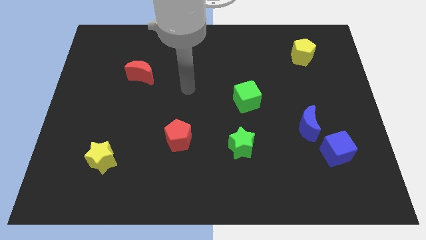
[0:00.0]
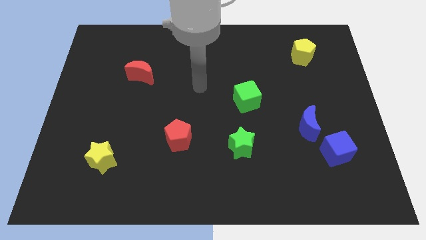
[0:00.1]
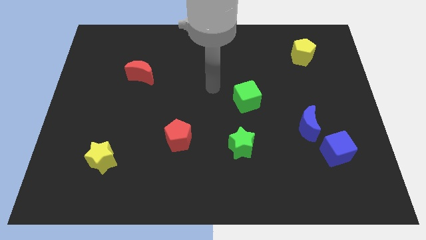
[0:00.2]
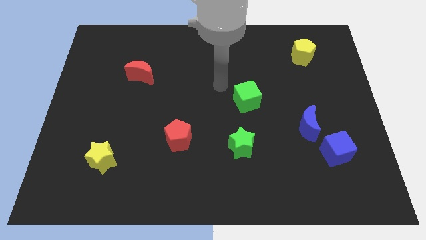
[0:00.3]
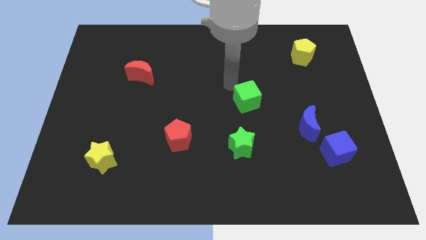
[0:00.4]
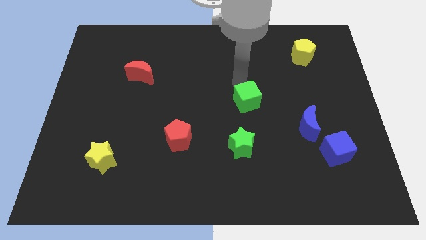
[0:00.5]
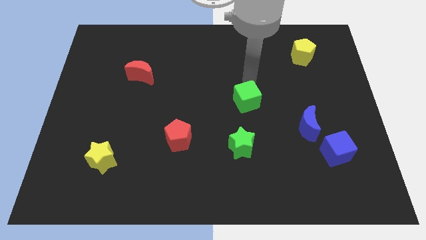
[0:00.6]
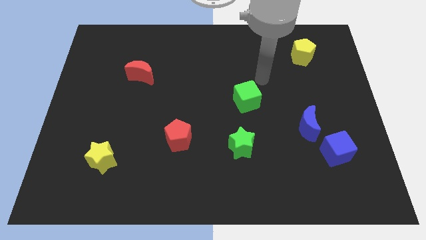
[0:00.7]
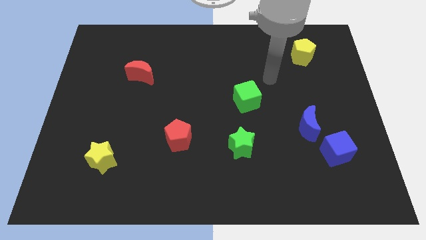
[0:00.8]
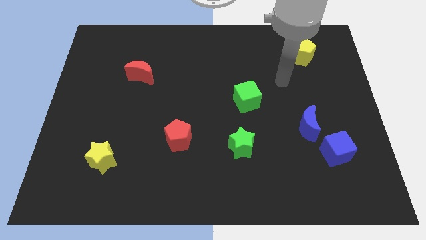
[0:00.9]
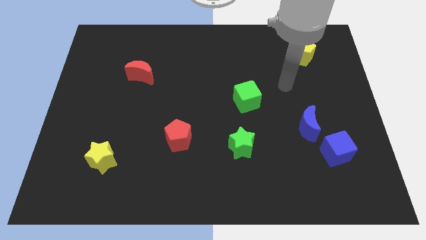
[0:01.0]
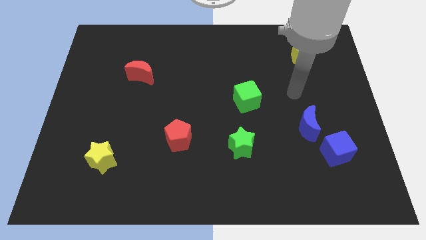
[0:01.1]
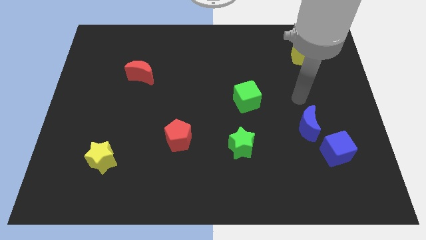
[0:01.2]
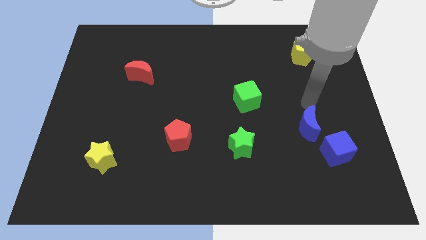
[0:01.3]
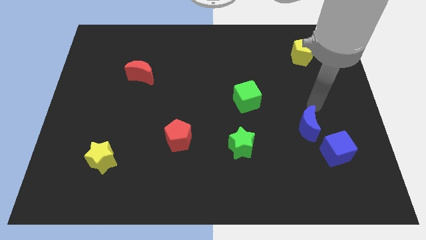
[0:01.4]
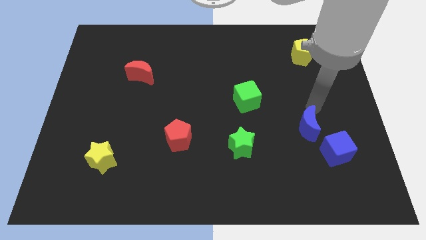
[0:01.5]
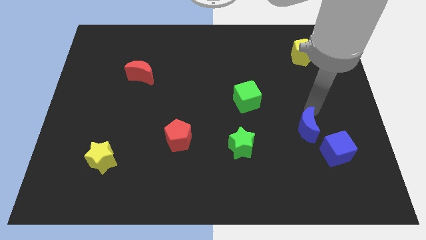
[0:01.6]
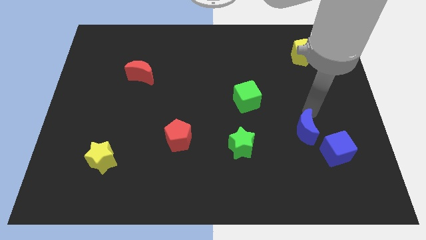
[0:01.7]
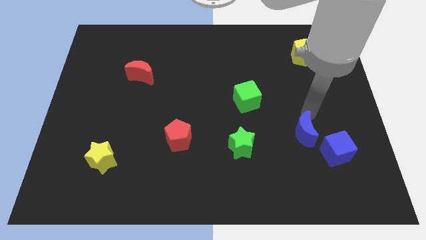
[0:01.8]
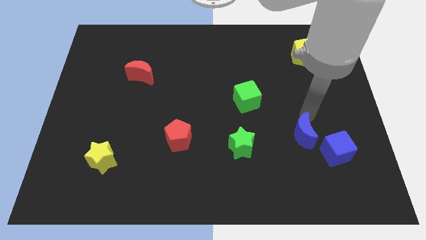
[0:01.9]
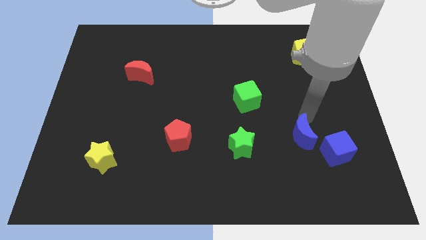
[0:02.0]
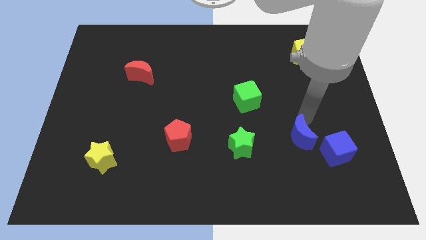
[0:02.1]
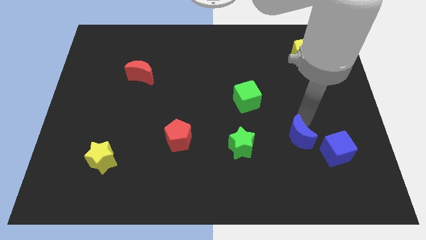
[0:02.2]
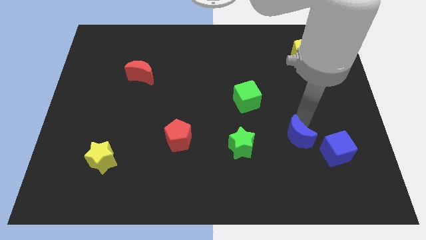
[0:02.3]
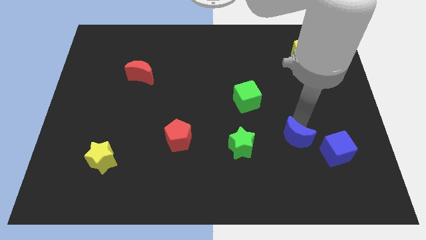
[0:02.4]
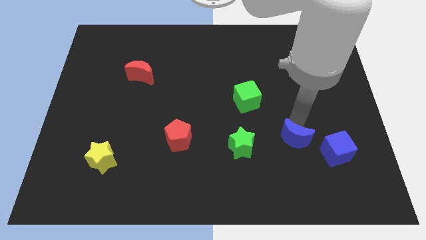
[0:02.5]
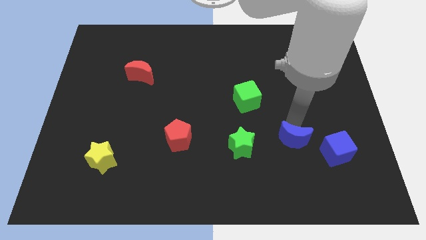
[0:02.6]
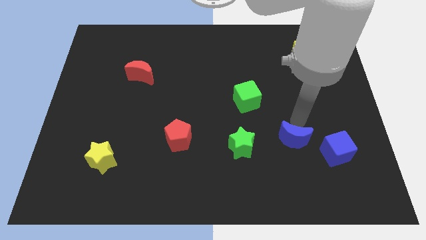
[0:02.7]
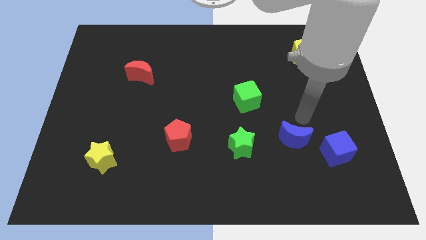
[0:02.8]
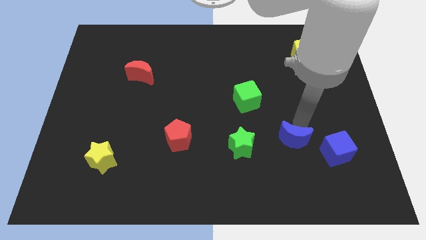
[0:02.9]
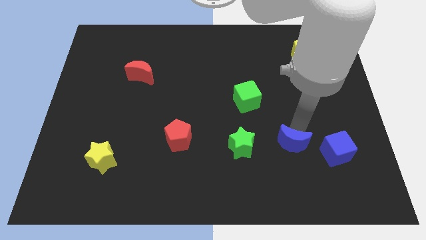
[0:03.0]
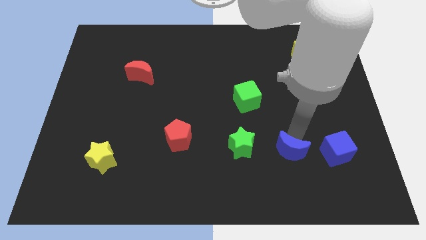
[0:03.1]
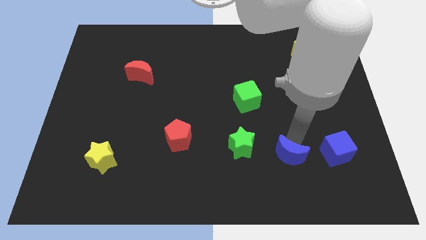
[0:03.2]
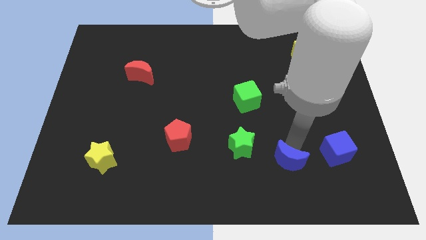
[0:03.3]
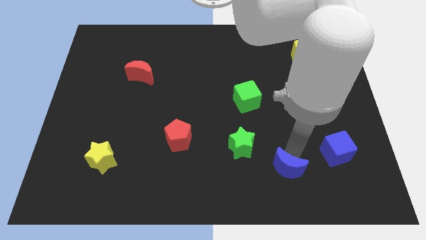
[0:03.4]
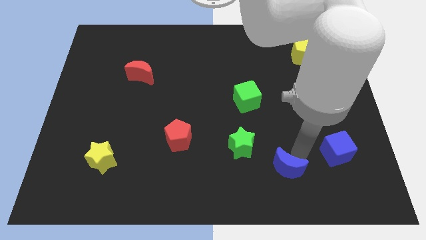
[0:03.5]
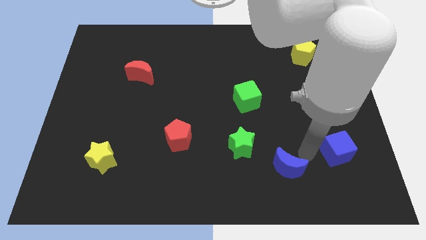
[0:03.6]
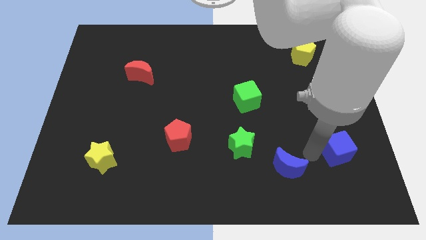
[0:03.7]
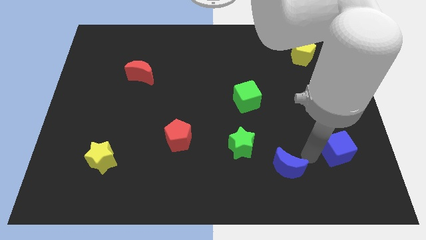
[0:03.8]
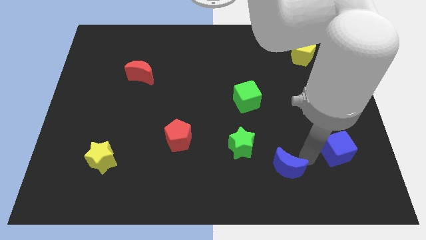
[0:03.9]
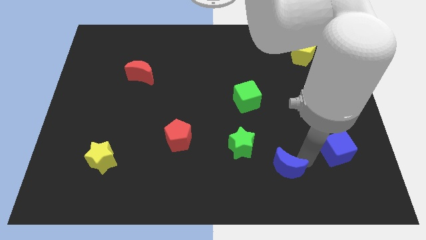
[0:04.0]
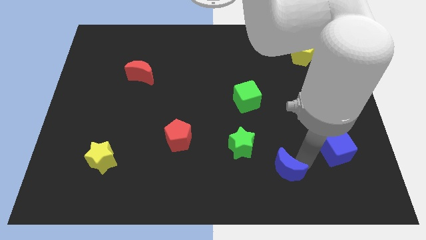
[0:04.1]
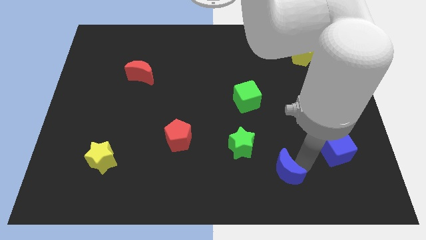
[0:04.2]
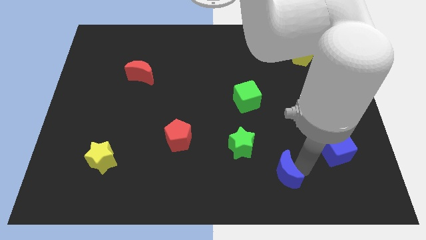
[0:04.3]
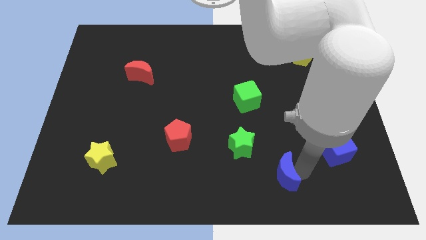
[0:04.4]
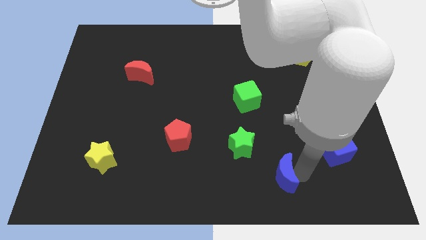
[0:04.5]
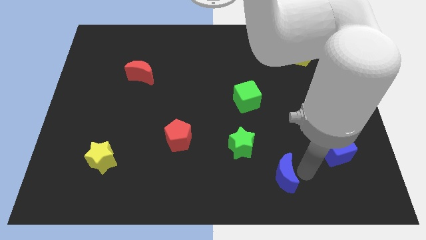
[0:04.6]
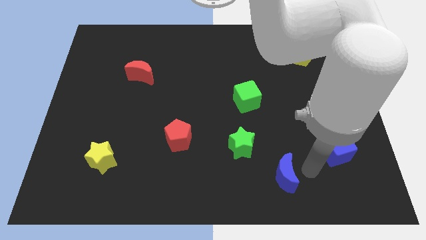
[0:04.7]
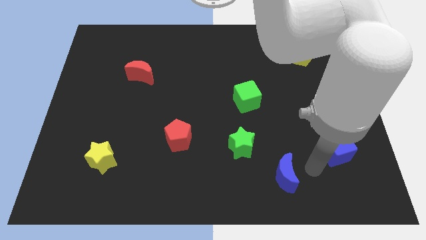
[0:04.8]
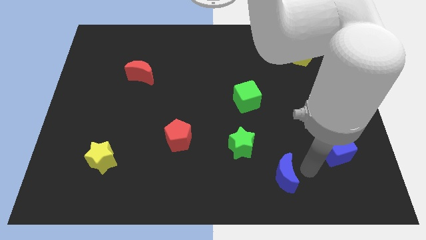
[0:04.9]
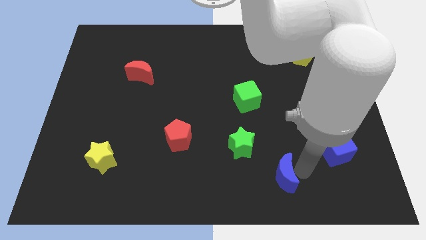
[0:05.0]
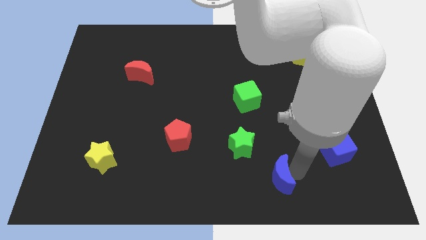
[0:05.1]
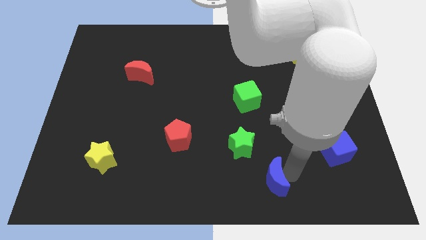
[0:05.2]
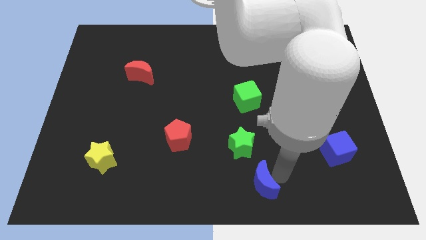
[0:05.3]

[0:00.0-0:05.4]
put the blue moon to the bottom side

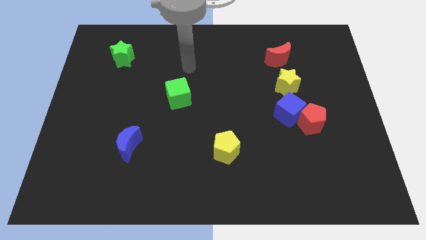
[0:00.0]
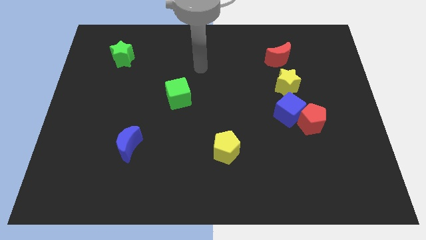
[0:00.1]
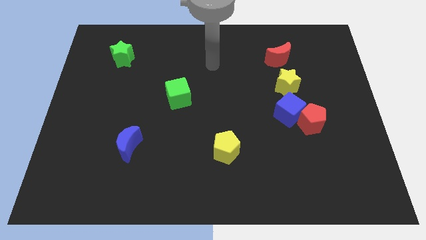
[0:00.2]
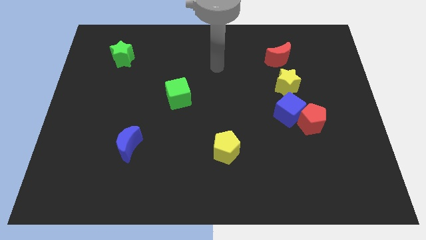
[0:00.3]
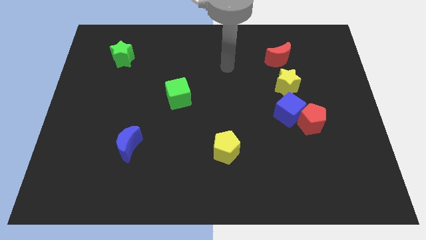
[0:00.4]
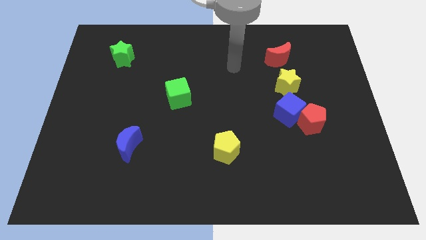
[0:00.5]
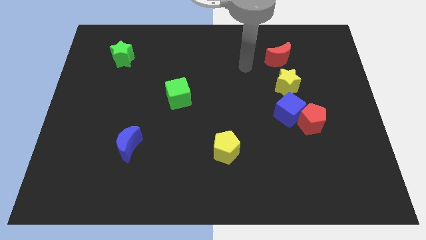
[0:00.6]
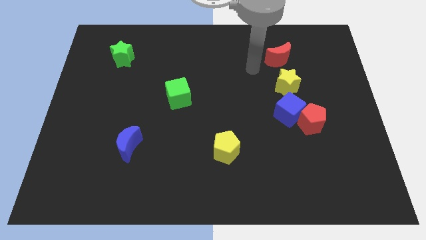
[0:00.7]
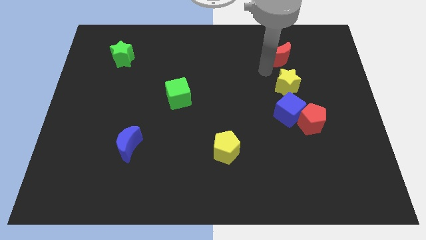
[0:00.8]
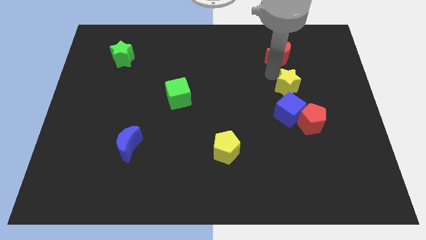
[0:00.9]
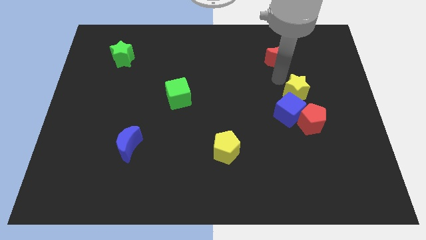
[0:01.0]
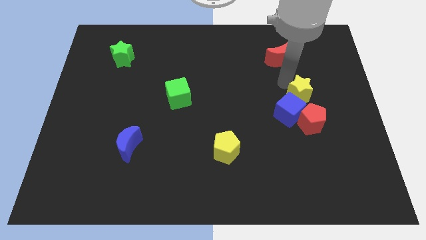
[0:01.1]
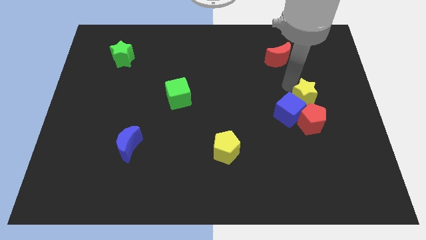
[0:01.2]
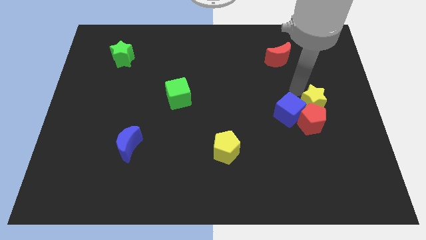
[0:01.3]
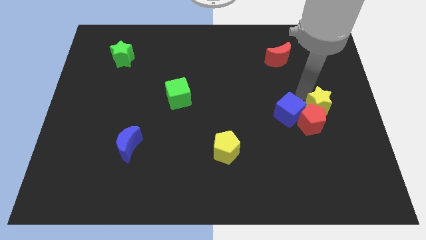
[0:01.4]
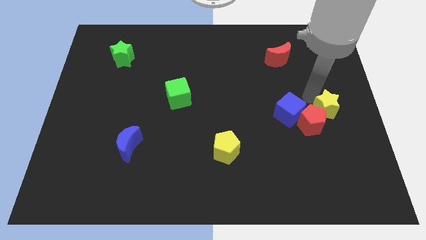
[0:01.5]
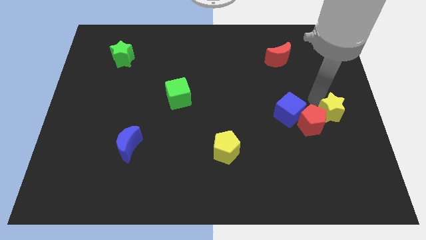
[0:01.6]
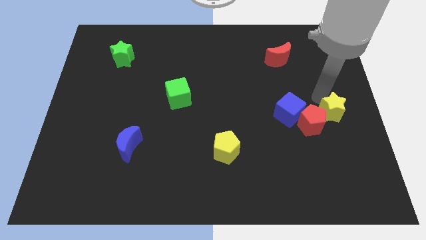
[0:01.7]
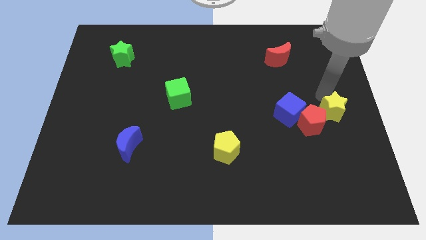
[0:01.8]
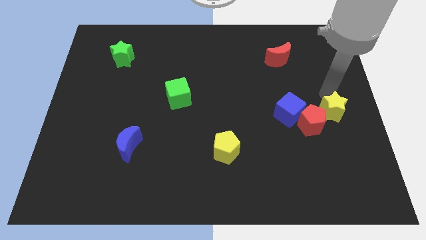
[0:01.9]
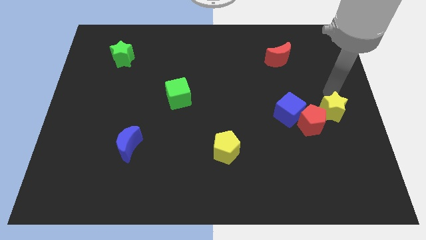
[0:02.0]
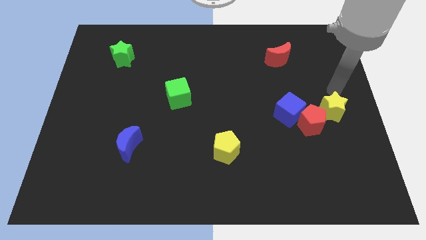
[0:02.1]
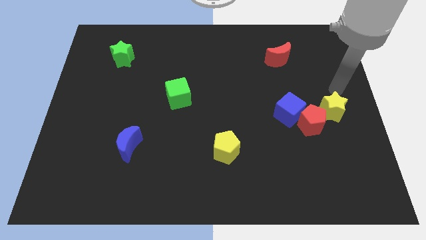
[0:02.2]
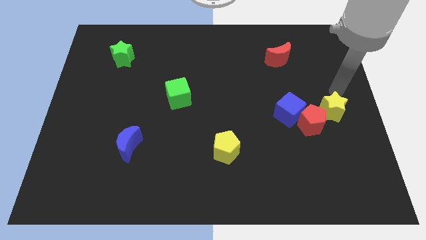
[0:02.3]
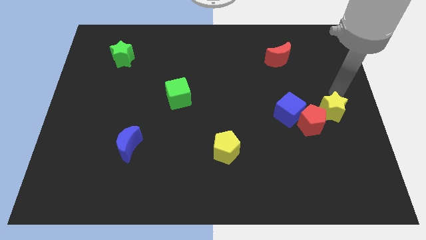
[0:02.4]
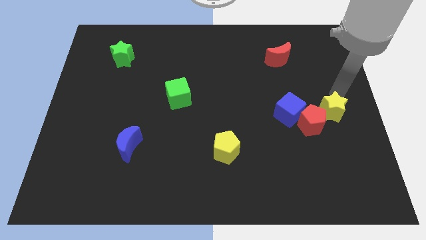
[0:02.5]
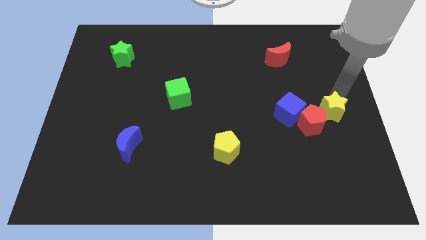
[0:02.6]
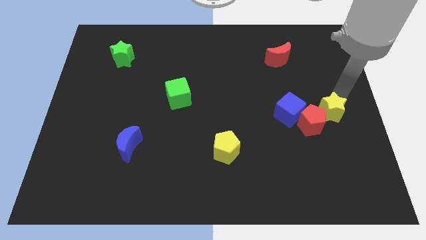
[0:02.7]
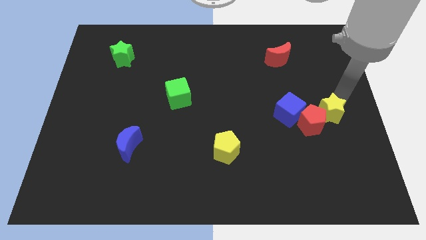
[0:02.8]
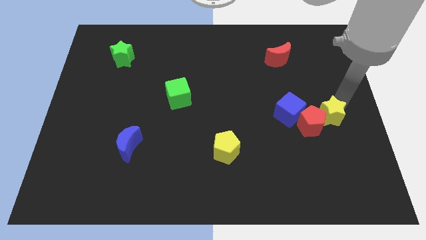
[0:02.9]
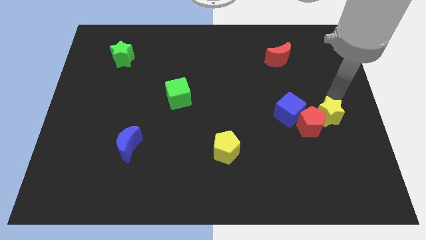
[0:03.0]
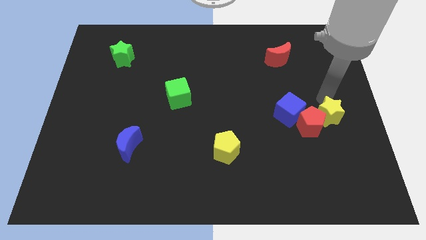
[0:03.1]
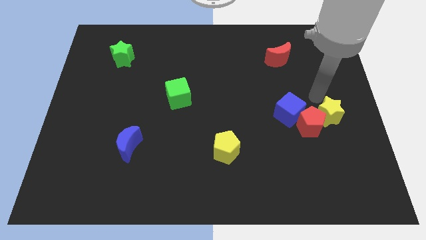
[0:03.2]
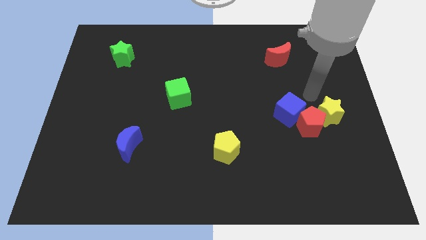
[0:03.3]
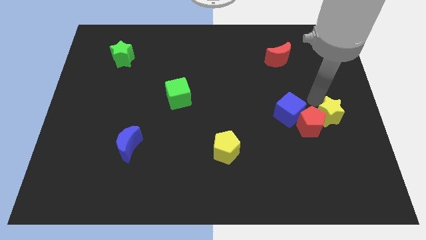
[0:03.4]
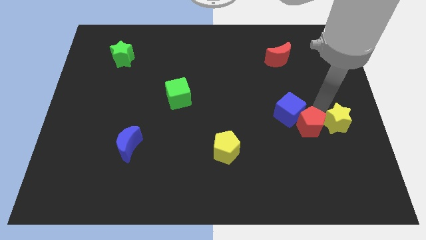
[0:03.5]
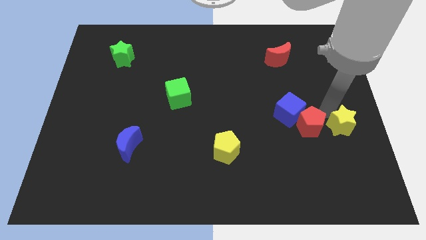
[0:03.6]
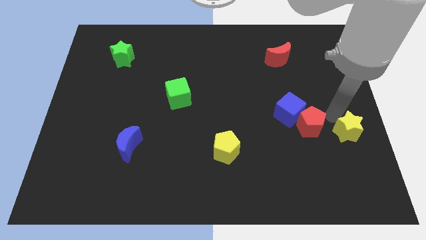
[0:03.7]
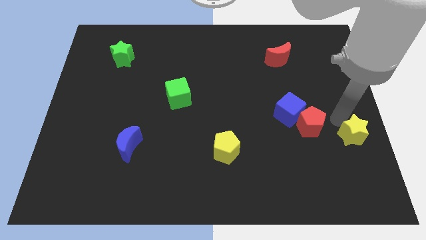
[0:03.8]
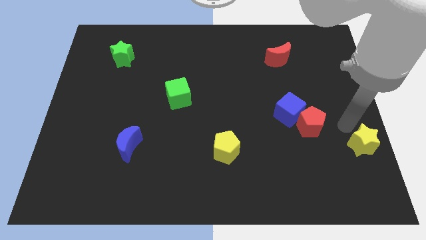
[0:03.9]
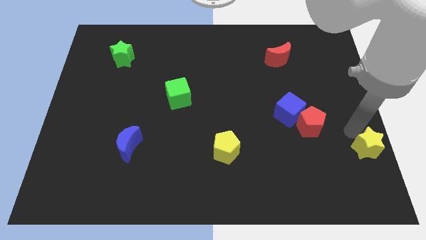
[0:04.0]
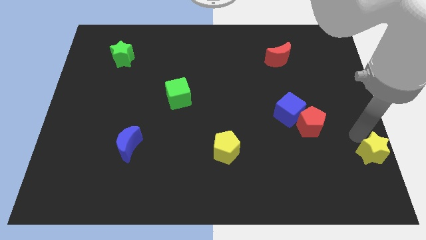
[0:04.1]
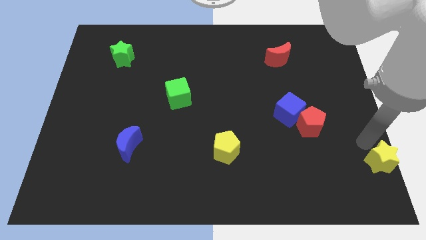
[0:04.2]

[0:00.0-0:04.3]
slide the yellow star to the bottom right of the board
